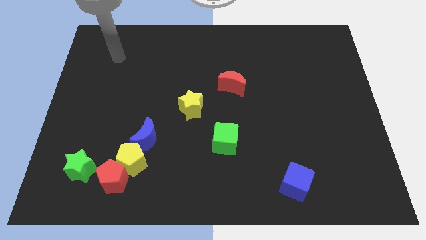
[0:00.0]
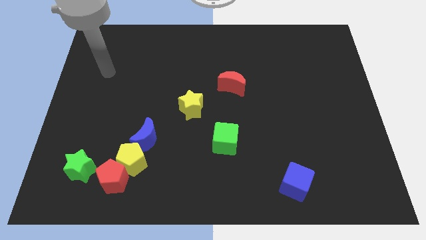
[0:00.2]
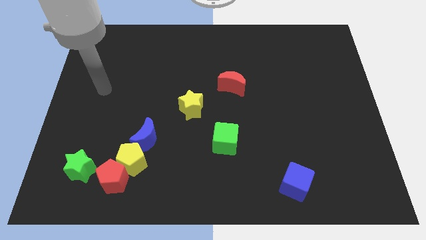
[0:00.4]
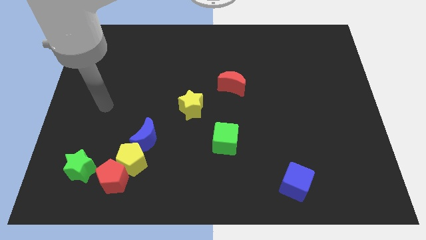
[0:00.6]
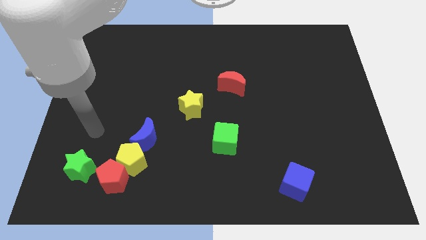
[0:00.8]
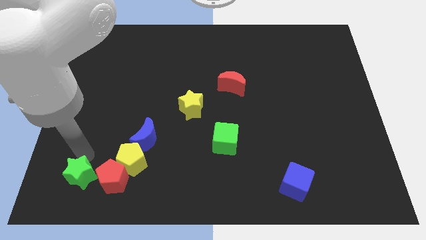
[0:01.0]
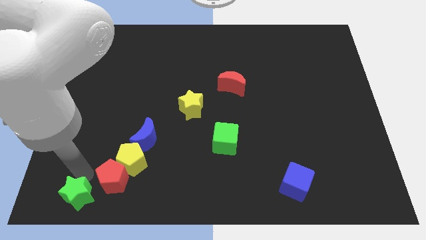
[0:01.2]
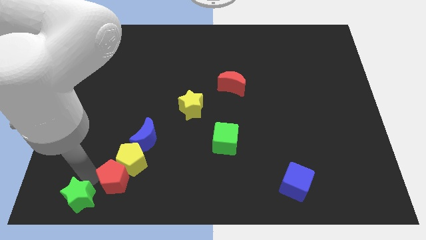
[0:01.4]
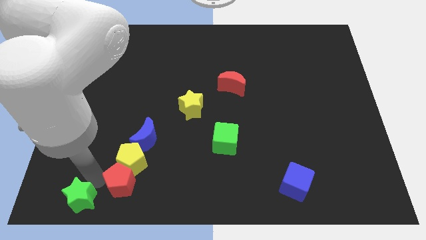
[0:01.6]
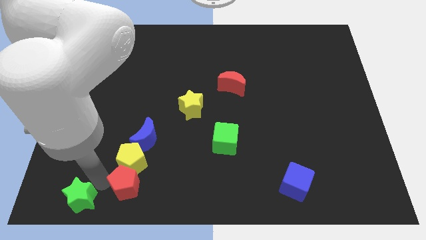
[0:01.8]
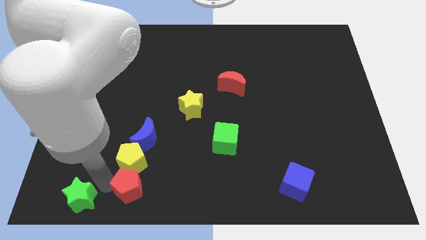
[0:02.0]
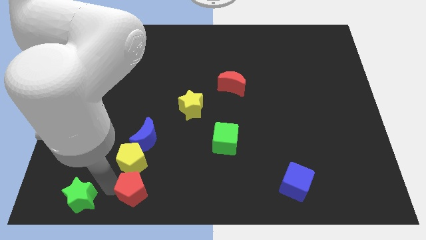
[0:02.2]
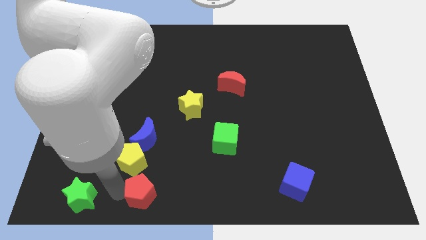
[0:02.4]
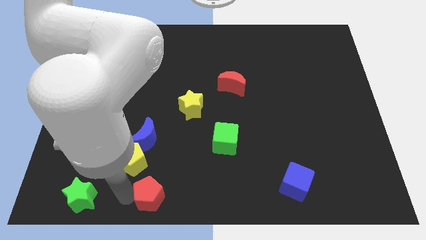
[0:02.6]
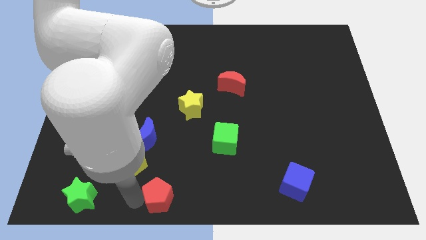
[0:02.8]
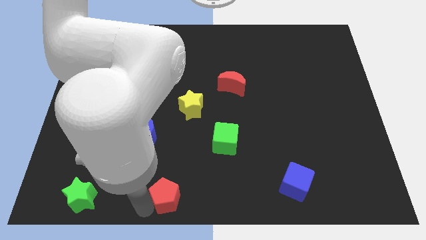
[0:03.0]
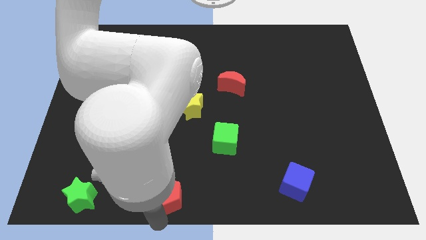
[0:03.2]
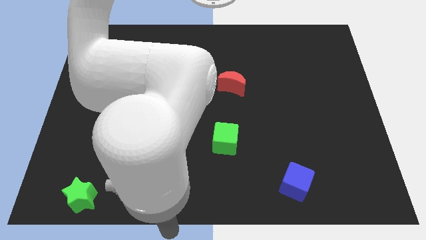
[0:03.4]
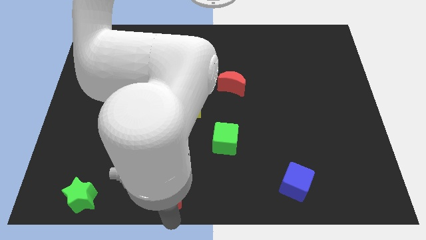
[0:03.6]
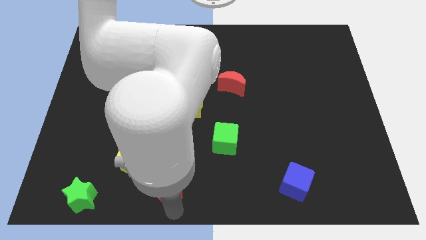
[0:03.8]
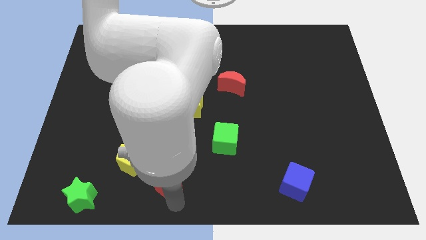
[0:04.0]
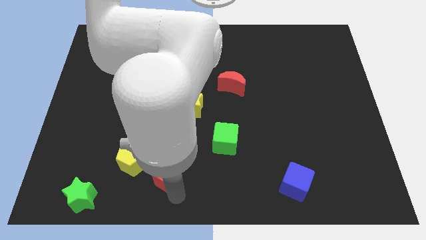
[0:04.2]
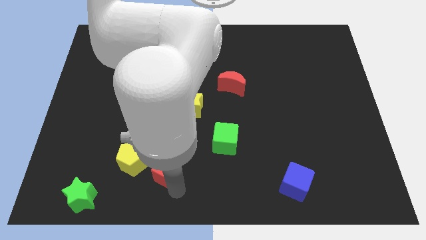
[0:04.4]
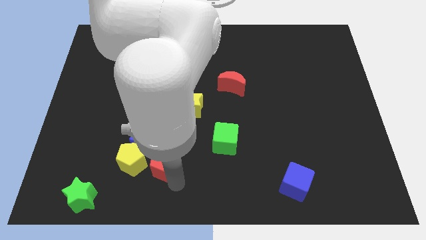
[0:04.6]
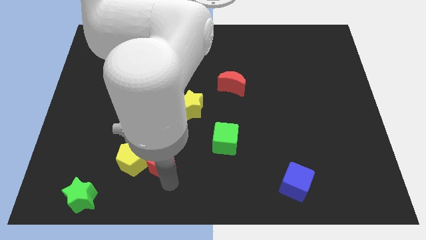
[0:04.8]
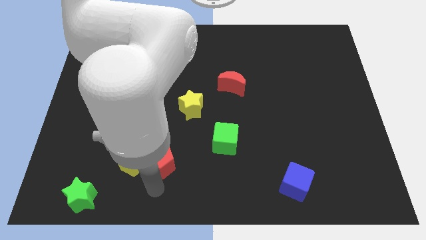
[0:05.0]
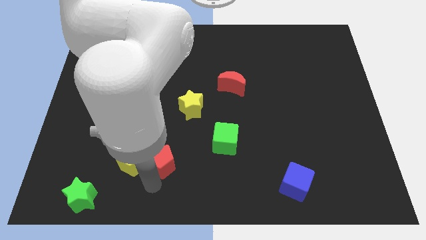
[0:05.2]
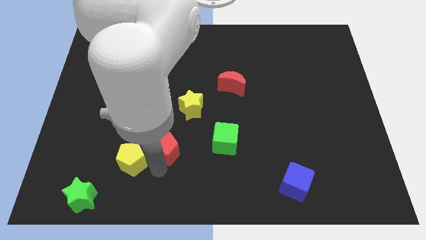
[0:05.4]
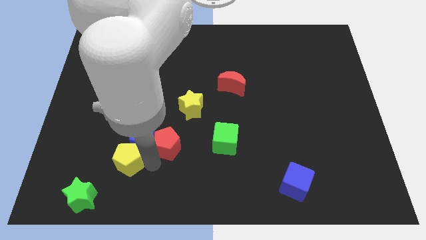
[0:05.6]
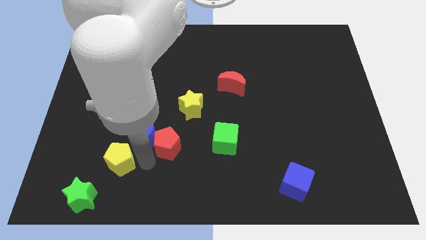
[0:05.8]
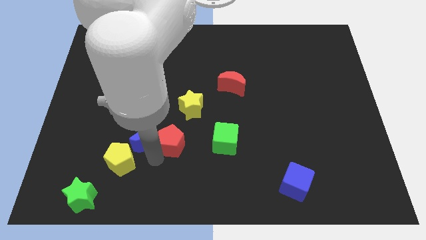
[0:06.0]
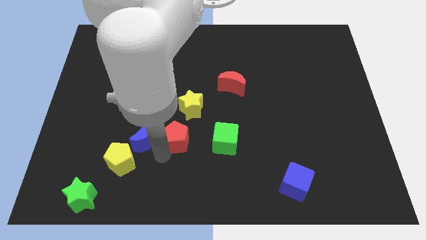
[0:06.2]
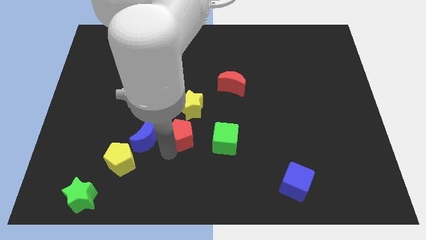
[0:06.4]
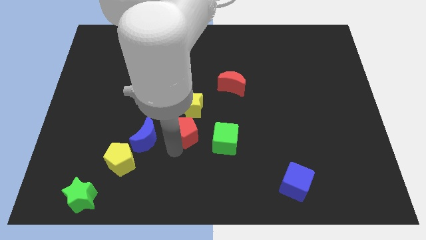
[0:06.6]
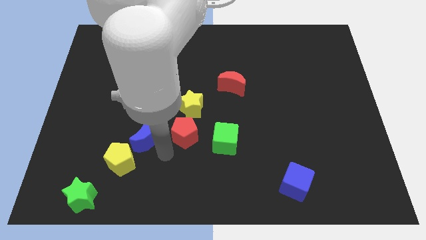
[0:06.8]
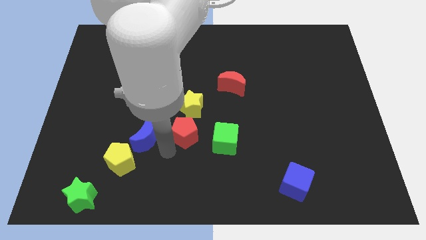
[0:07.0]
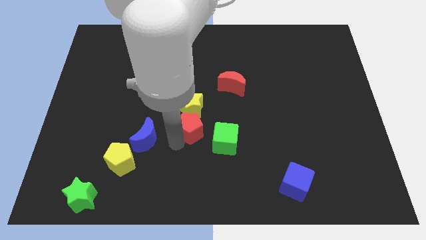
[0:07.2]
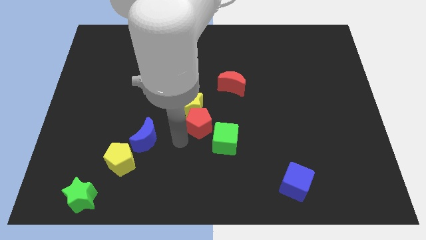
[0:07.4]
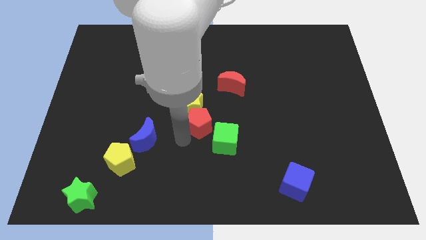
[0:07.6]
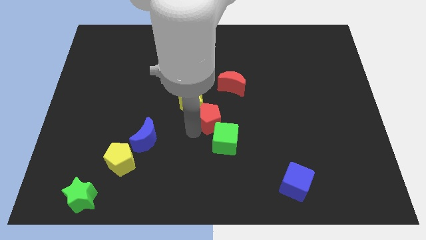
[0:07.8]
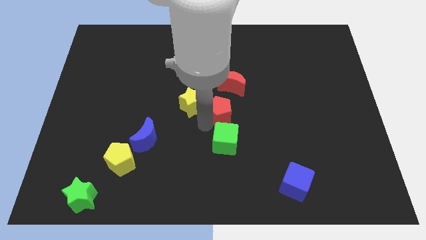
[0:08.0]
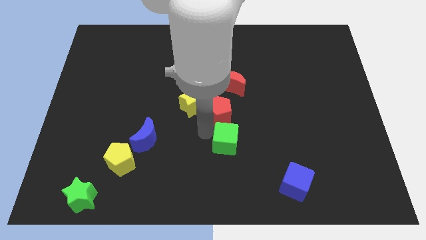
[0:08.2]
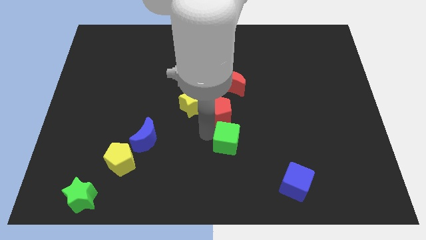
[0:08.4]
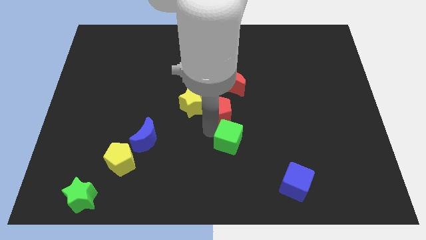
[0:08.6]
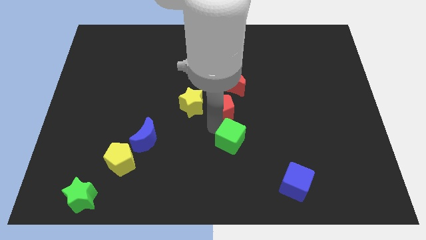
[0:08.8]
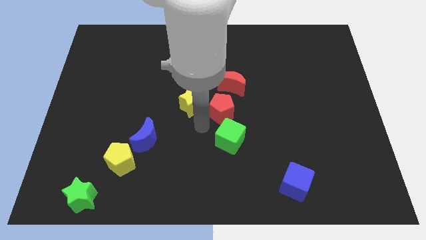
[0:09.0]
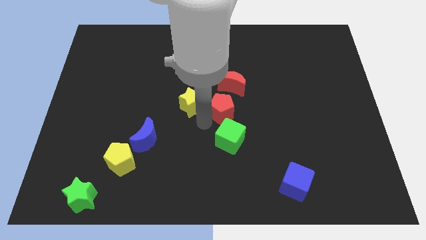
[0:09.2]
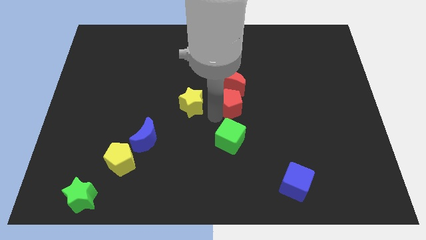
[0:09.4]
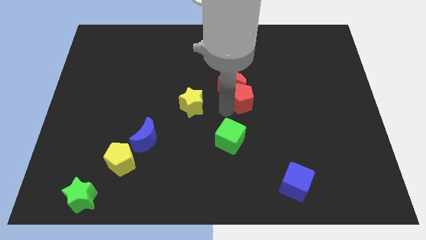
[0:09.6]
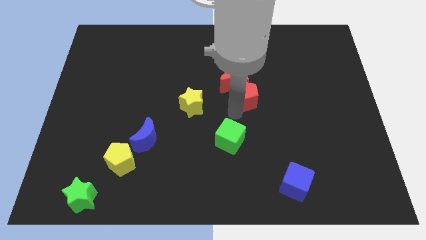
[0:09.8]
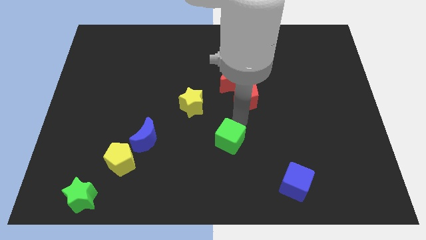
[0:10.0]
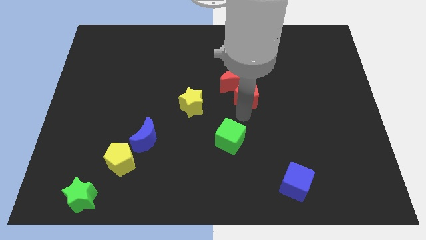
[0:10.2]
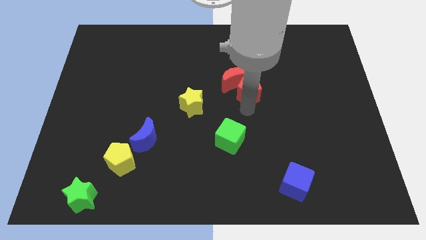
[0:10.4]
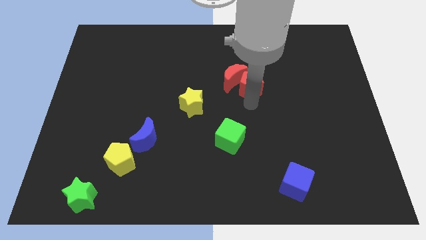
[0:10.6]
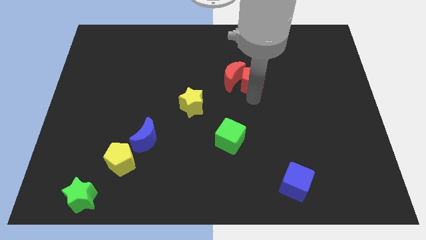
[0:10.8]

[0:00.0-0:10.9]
put the red pentagon diagonally up and to the right of the red moon

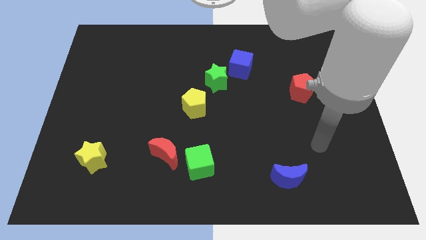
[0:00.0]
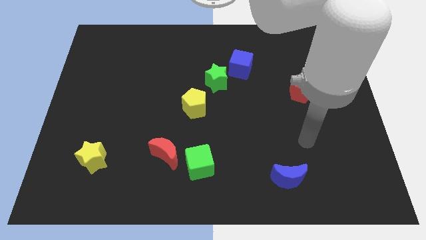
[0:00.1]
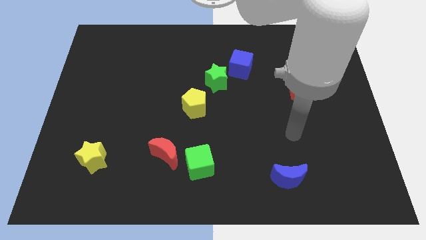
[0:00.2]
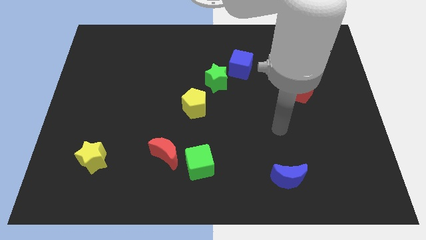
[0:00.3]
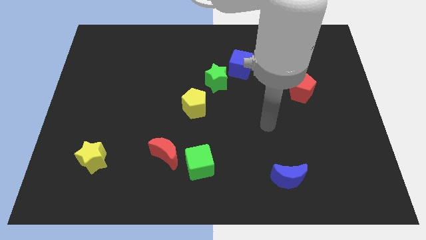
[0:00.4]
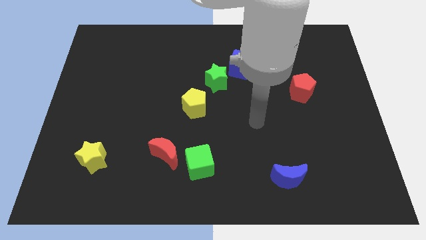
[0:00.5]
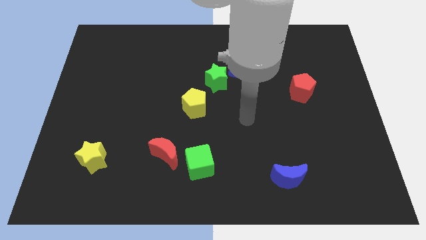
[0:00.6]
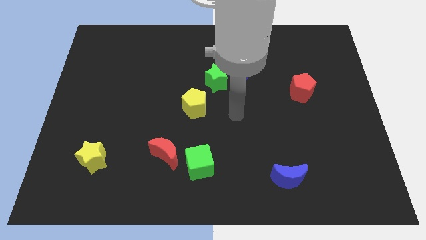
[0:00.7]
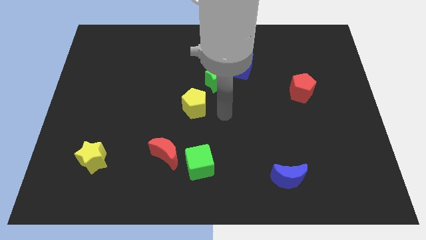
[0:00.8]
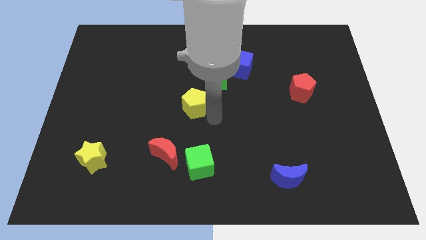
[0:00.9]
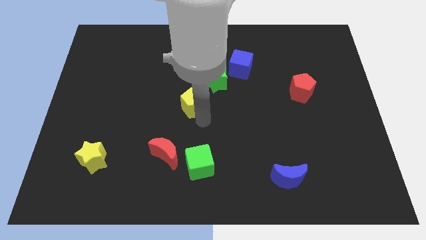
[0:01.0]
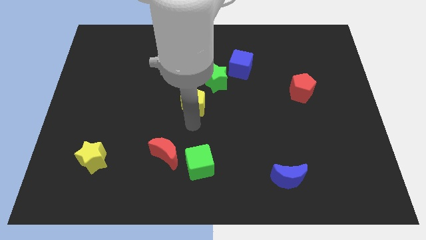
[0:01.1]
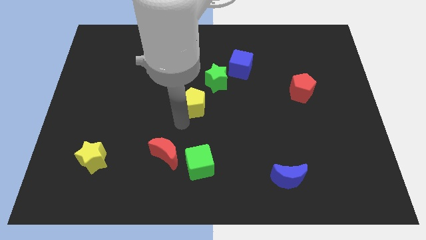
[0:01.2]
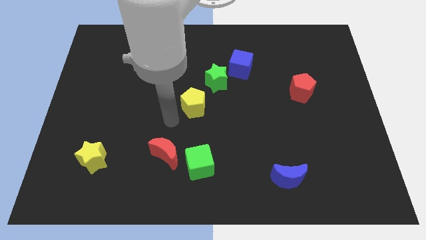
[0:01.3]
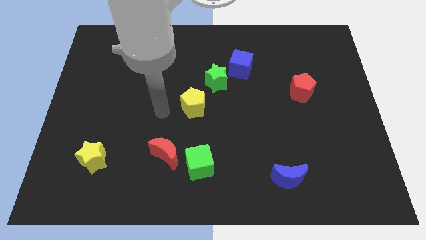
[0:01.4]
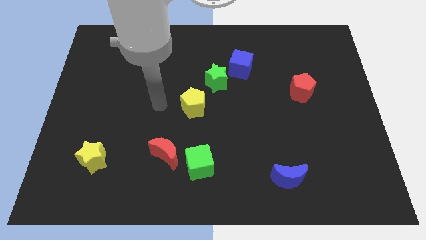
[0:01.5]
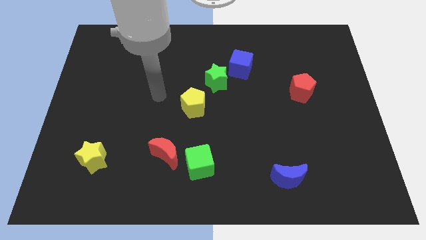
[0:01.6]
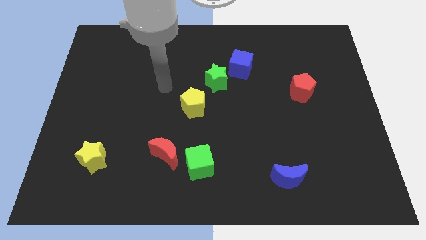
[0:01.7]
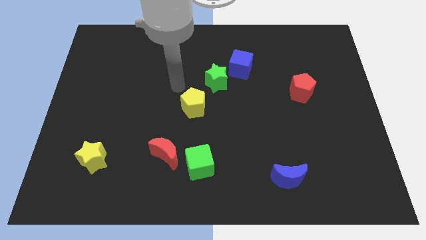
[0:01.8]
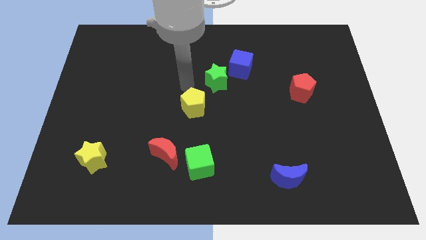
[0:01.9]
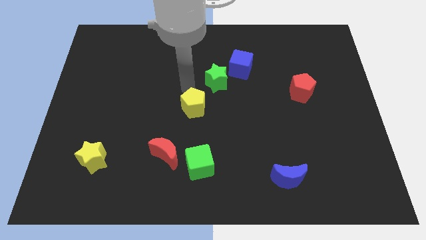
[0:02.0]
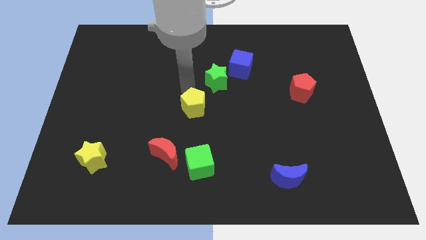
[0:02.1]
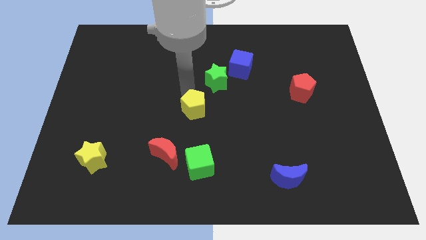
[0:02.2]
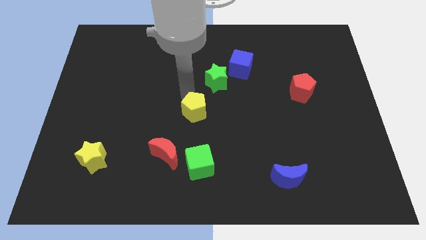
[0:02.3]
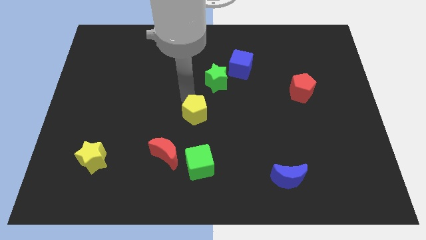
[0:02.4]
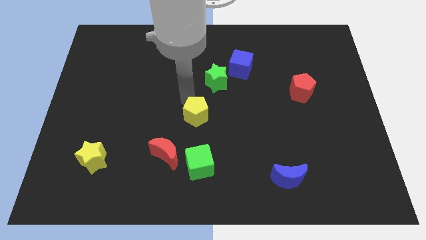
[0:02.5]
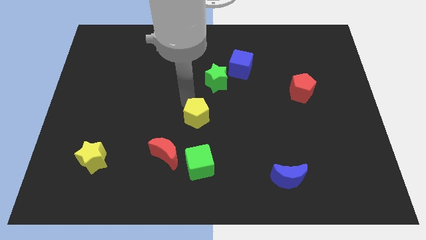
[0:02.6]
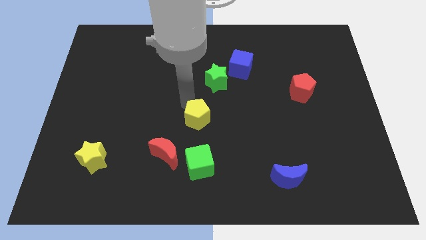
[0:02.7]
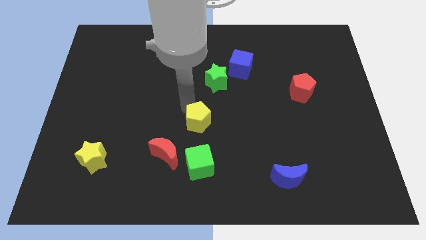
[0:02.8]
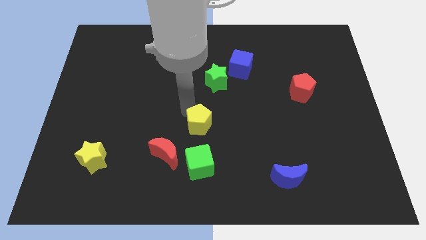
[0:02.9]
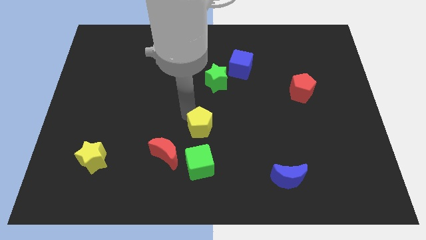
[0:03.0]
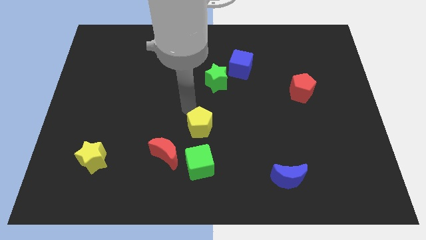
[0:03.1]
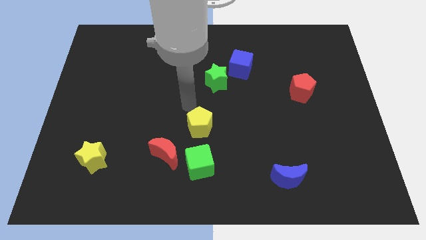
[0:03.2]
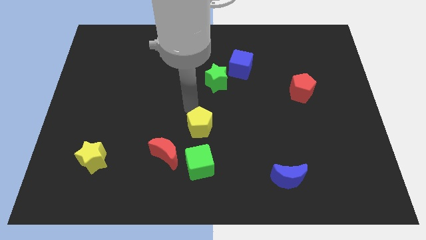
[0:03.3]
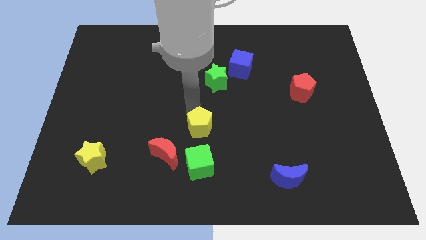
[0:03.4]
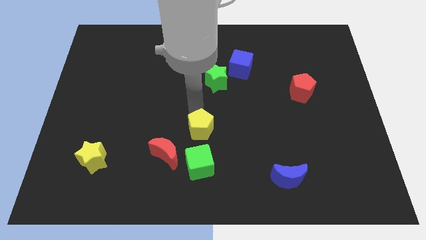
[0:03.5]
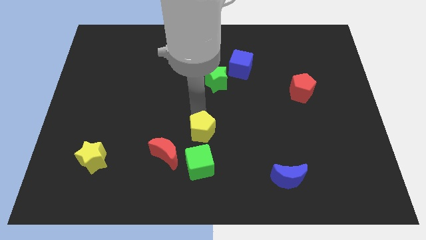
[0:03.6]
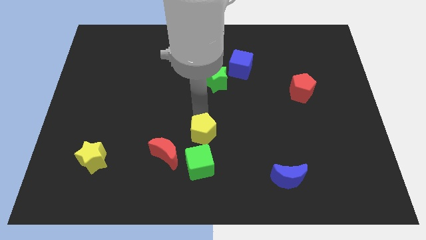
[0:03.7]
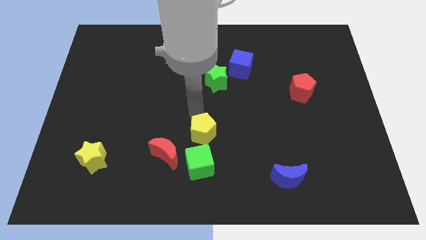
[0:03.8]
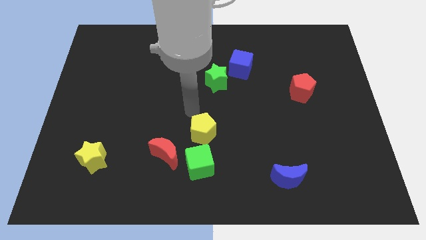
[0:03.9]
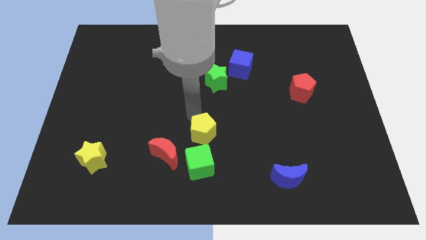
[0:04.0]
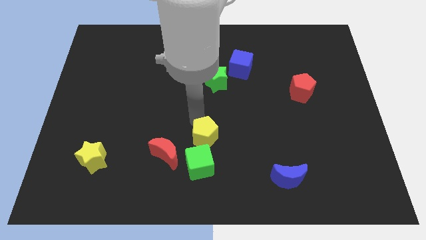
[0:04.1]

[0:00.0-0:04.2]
slide the yellow pentagon right of the red moon
